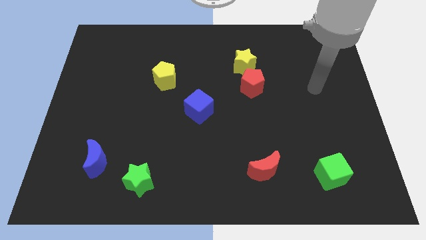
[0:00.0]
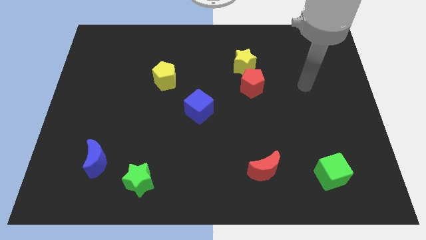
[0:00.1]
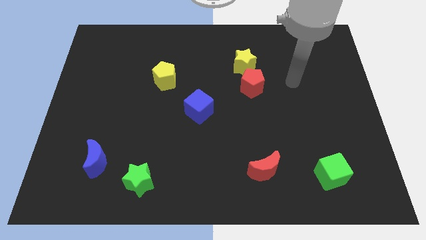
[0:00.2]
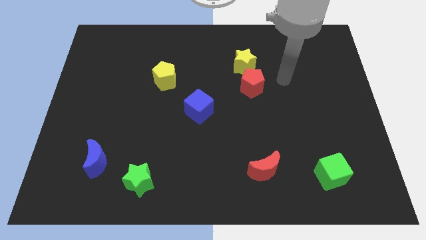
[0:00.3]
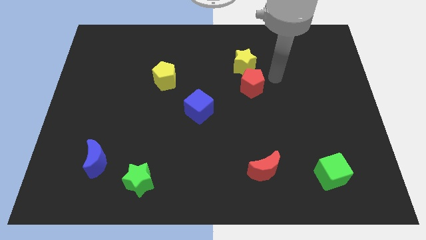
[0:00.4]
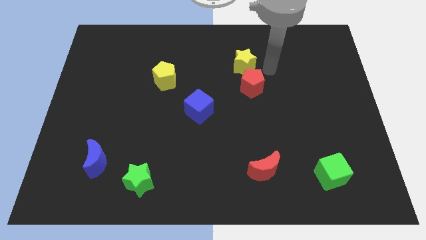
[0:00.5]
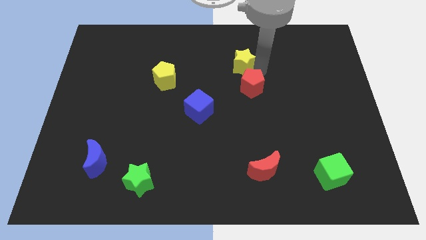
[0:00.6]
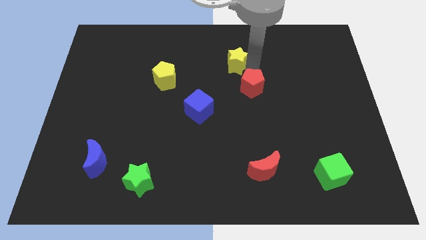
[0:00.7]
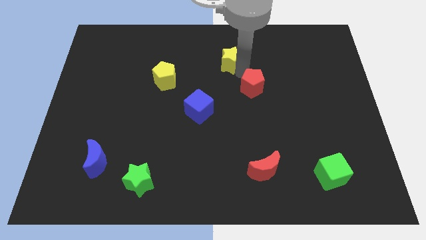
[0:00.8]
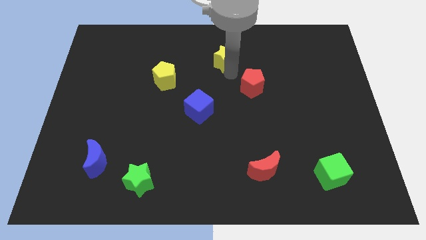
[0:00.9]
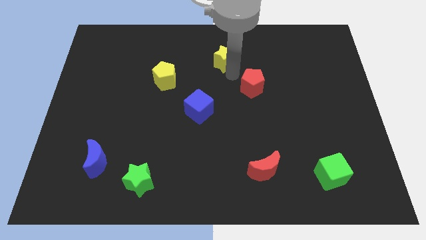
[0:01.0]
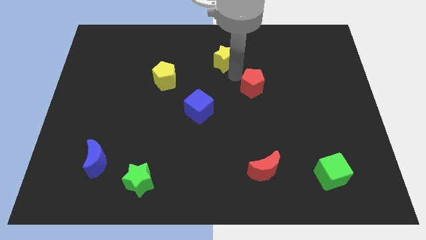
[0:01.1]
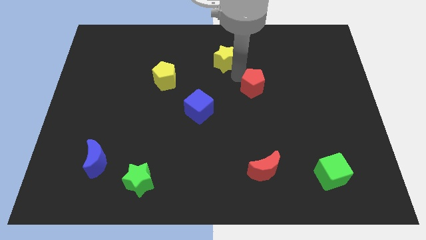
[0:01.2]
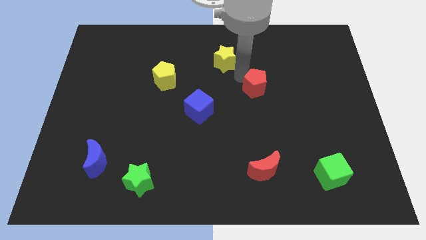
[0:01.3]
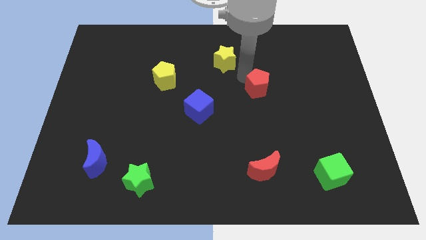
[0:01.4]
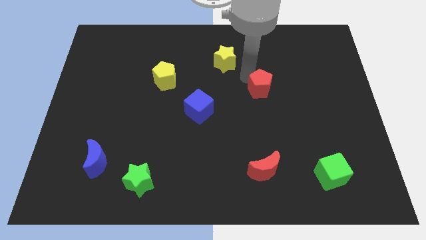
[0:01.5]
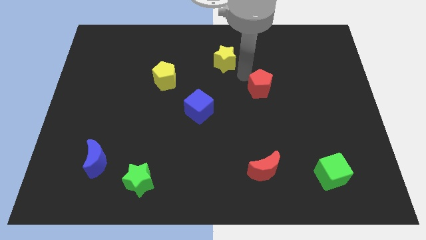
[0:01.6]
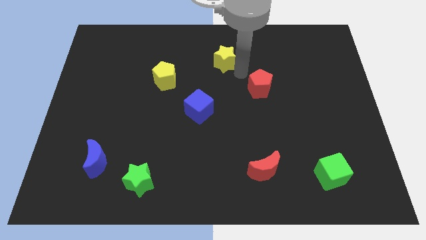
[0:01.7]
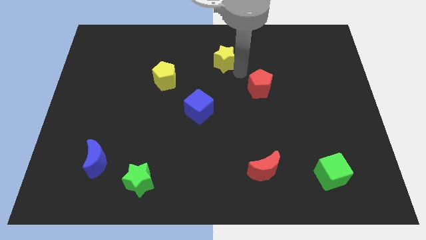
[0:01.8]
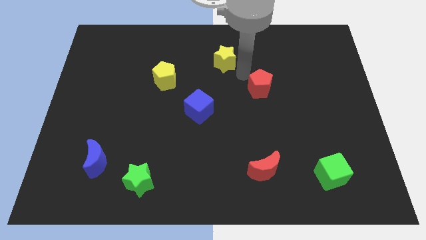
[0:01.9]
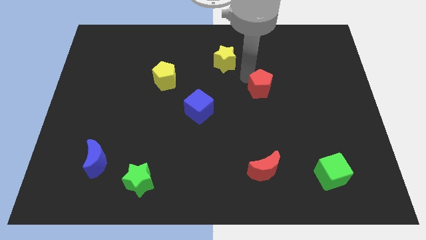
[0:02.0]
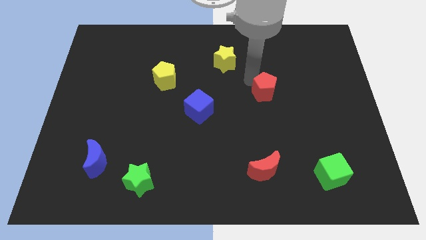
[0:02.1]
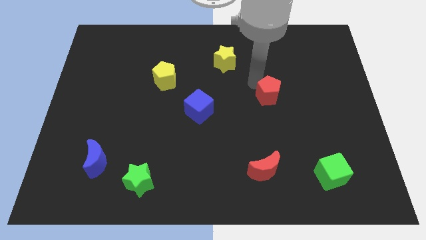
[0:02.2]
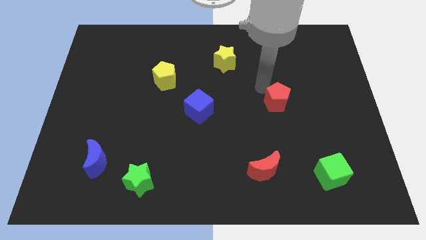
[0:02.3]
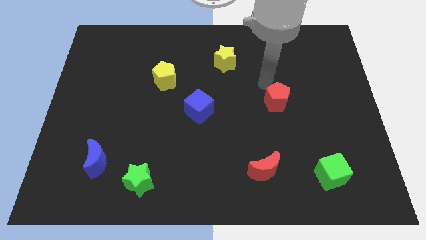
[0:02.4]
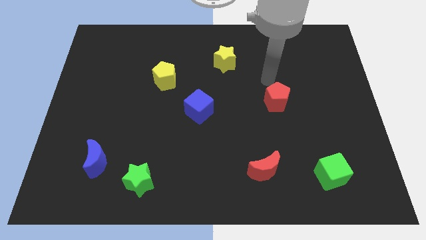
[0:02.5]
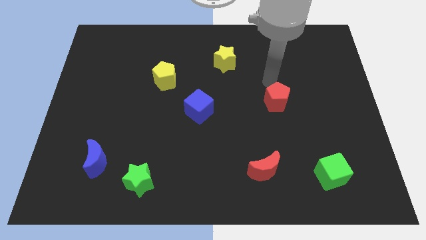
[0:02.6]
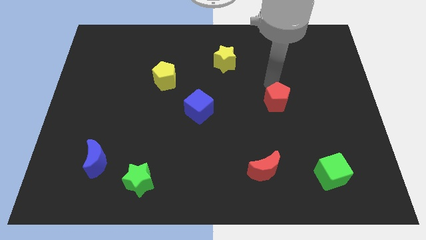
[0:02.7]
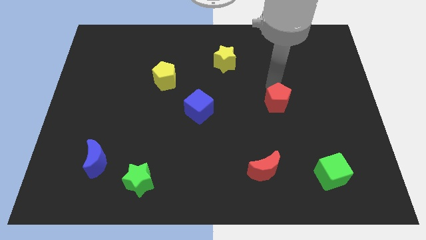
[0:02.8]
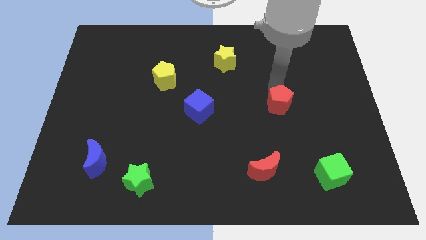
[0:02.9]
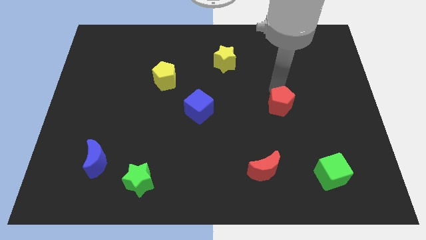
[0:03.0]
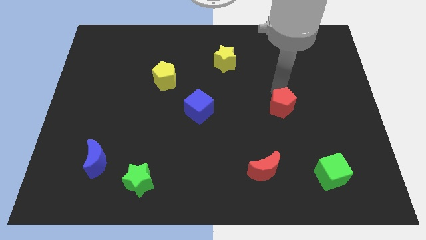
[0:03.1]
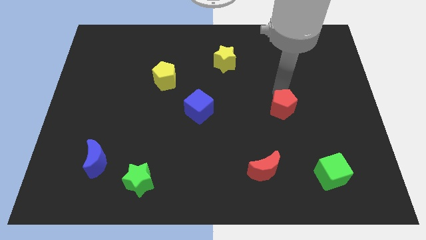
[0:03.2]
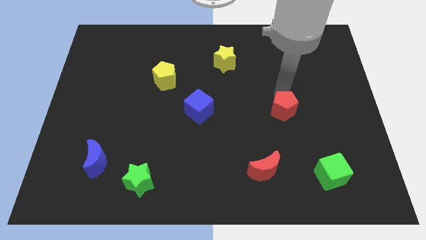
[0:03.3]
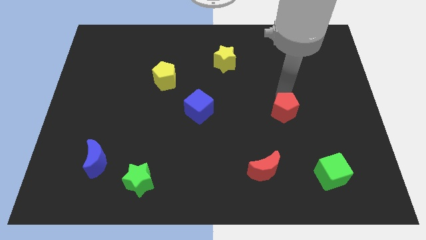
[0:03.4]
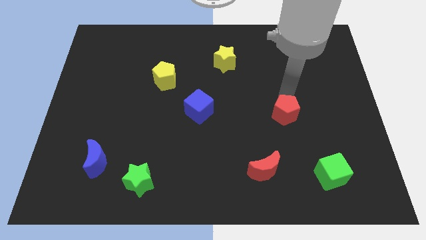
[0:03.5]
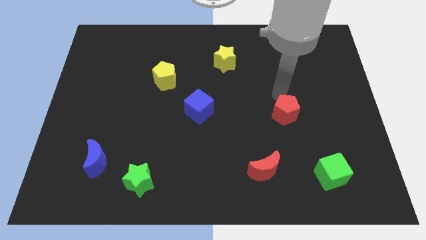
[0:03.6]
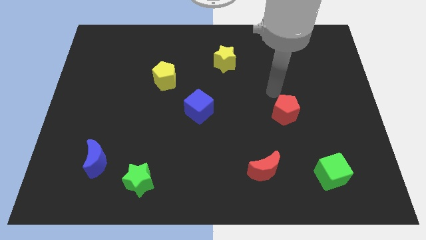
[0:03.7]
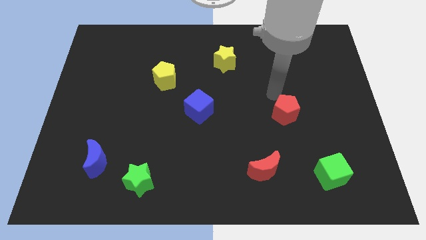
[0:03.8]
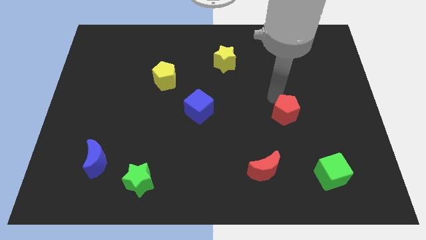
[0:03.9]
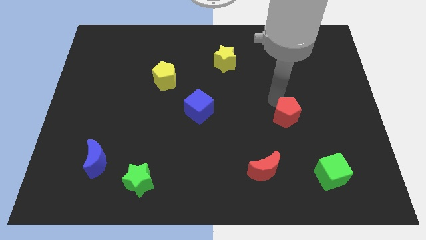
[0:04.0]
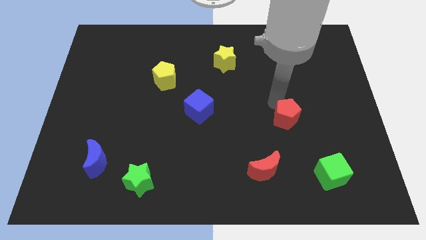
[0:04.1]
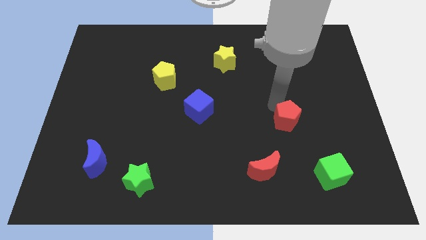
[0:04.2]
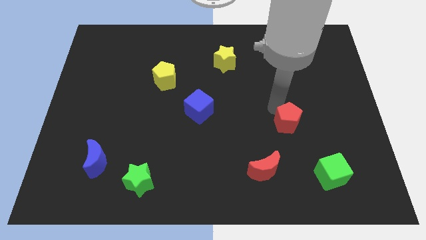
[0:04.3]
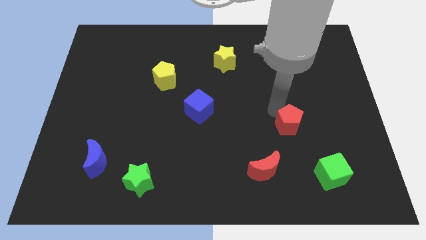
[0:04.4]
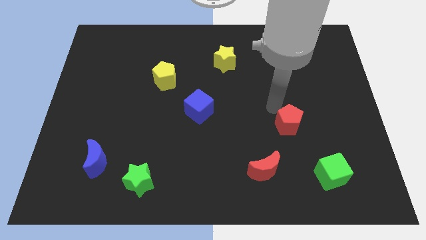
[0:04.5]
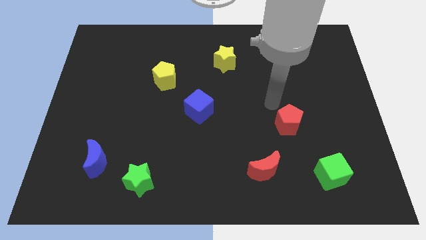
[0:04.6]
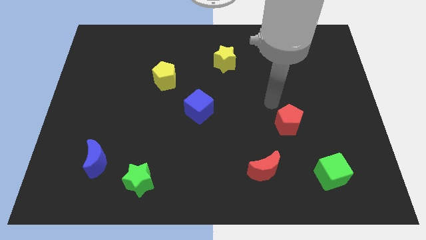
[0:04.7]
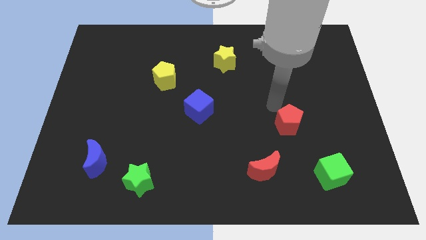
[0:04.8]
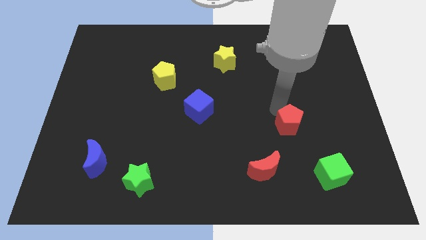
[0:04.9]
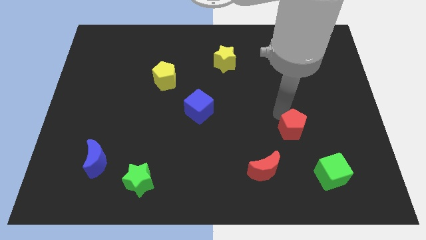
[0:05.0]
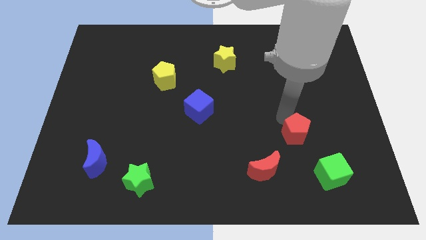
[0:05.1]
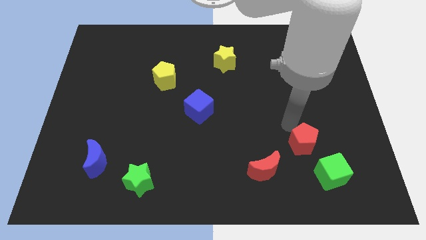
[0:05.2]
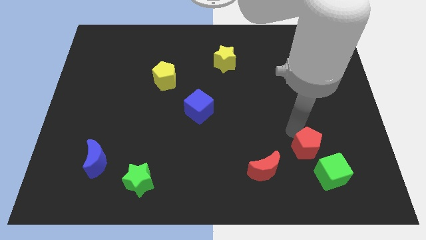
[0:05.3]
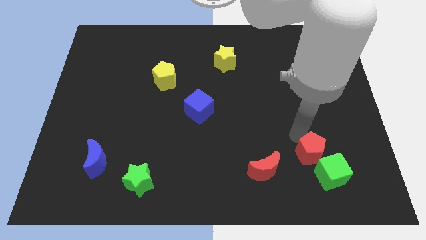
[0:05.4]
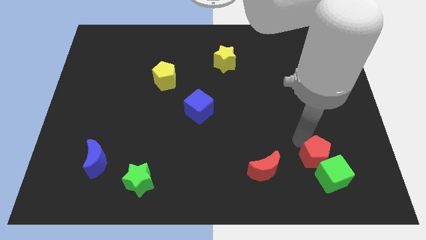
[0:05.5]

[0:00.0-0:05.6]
slide the red pentagon close to the green cube

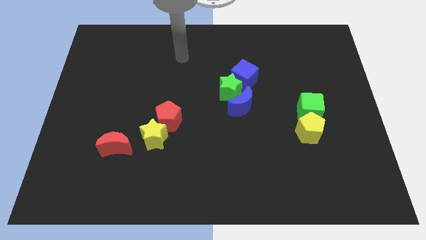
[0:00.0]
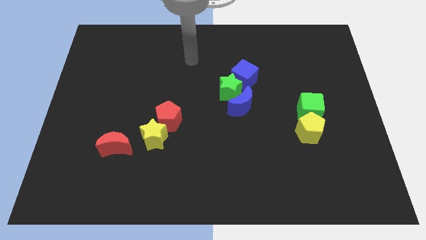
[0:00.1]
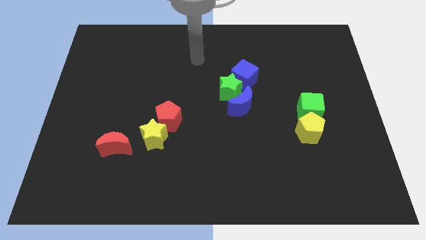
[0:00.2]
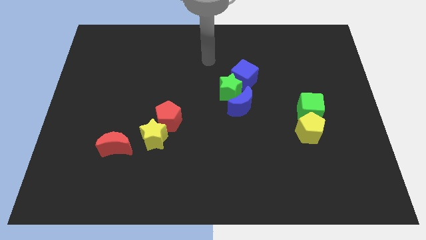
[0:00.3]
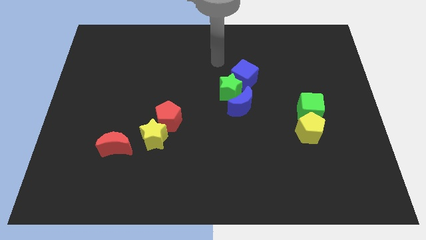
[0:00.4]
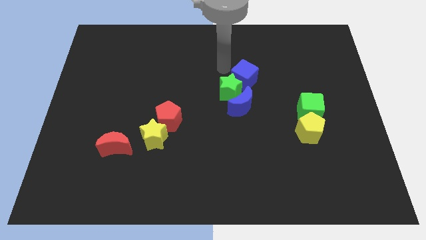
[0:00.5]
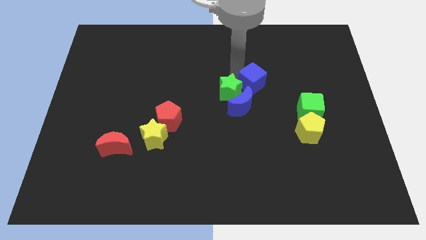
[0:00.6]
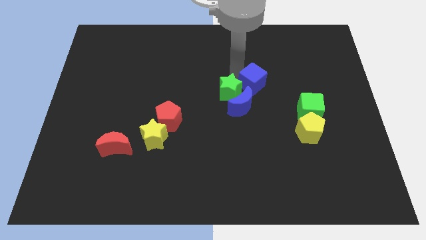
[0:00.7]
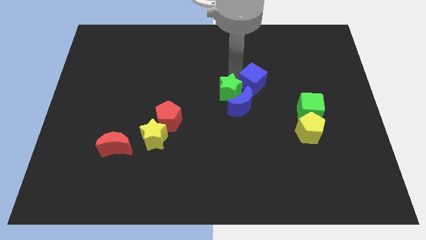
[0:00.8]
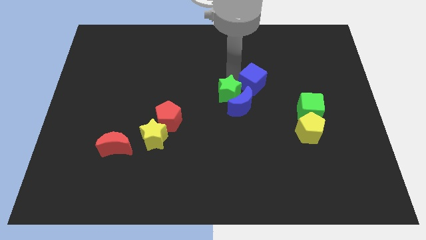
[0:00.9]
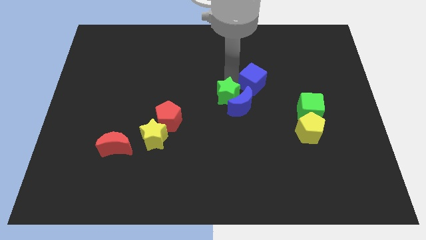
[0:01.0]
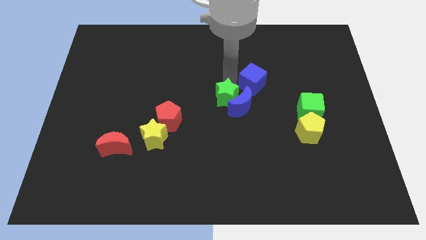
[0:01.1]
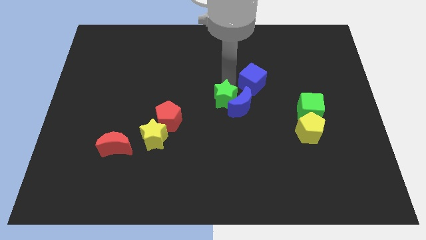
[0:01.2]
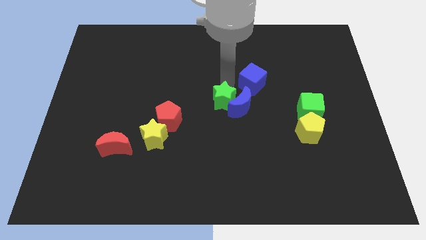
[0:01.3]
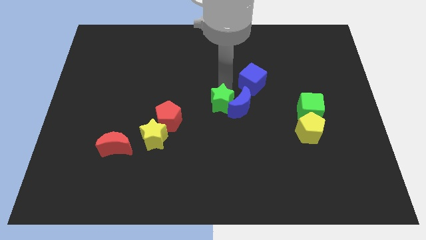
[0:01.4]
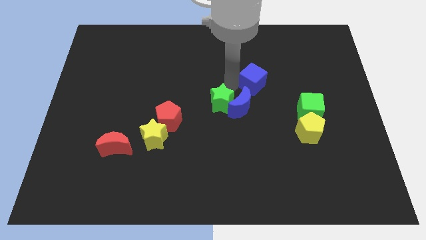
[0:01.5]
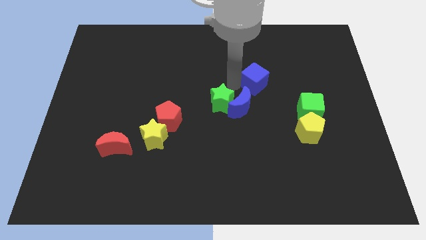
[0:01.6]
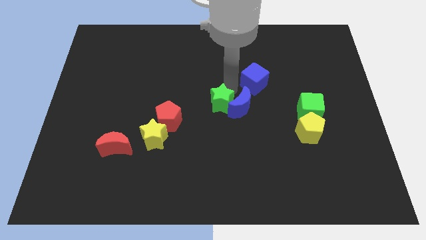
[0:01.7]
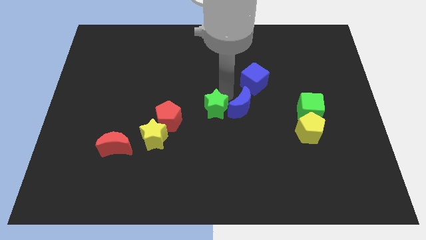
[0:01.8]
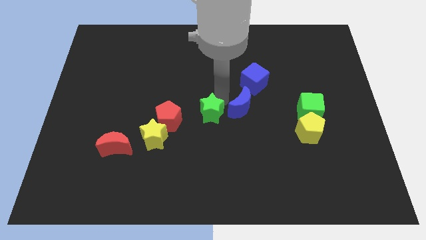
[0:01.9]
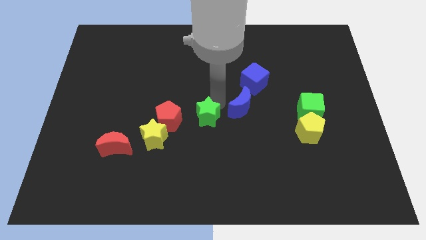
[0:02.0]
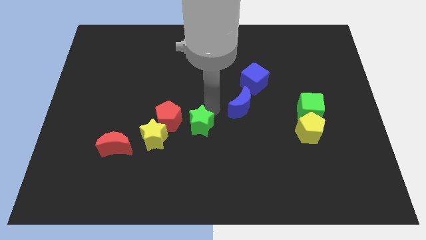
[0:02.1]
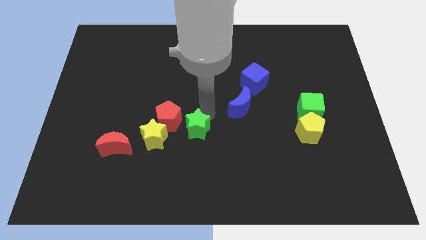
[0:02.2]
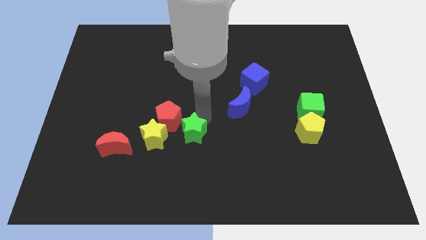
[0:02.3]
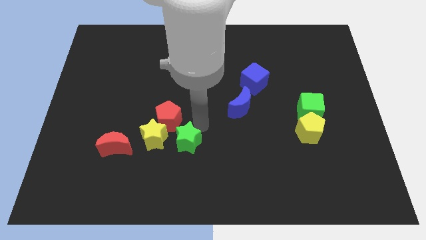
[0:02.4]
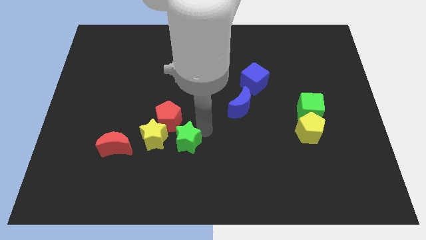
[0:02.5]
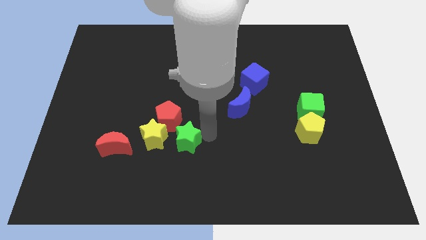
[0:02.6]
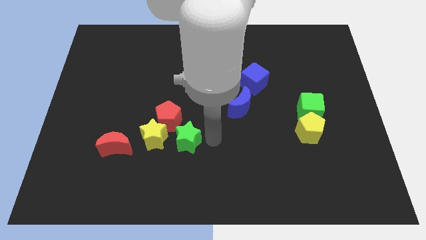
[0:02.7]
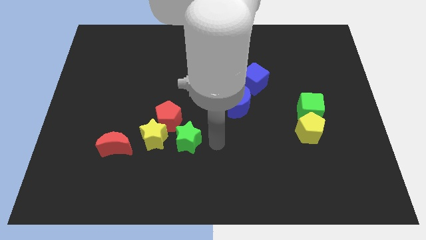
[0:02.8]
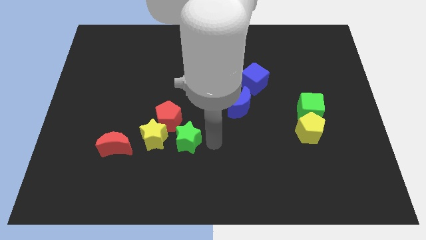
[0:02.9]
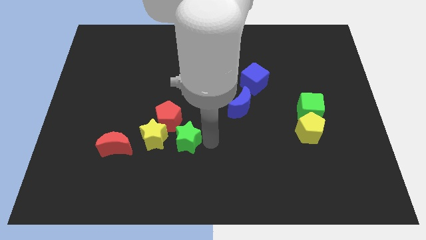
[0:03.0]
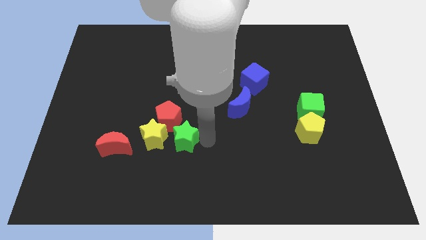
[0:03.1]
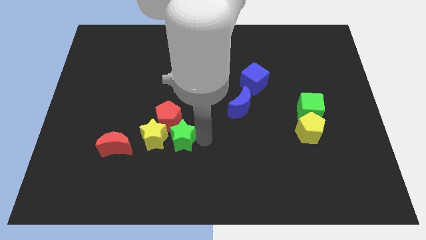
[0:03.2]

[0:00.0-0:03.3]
slide the green star next to the yellow star
